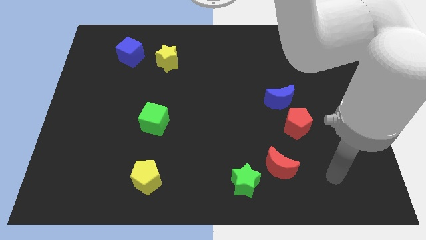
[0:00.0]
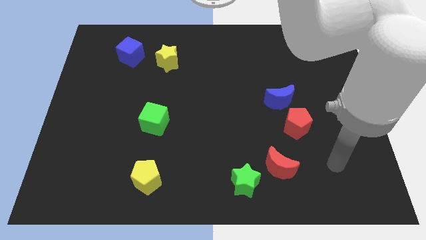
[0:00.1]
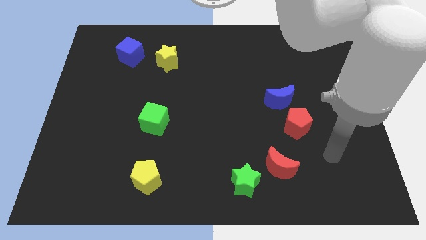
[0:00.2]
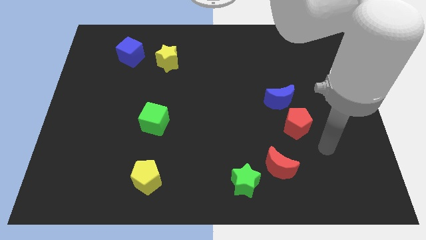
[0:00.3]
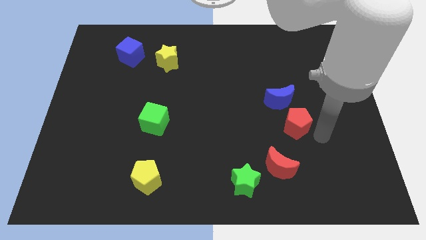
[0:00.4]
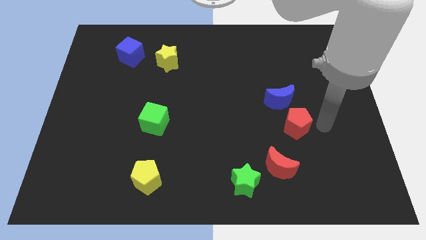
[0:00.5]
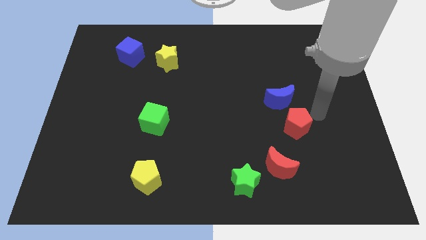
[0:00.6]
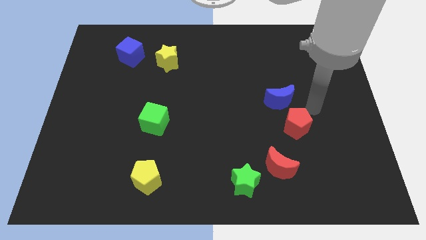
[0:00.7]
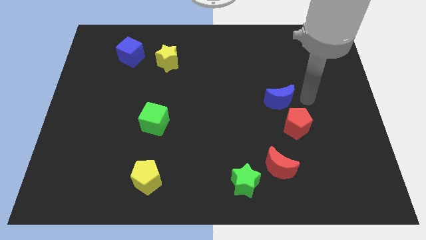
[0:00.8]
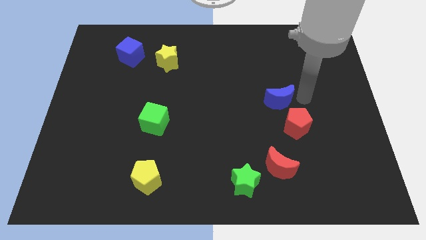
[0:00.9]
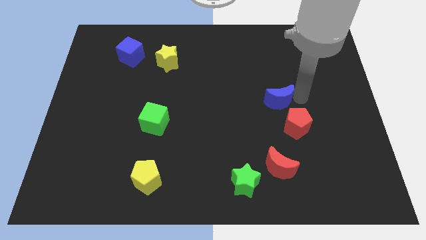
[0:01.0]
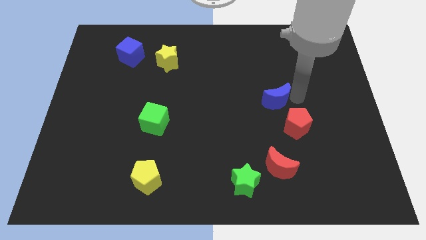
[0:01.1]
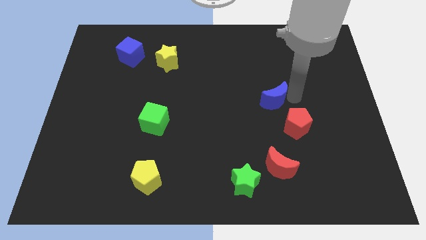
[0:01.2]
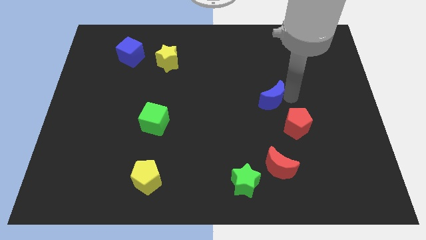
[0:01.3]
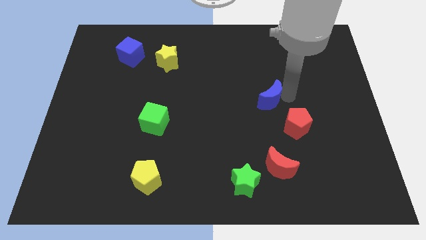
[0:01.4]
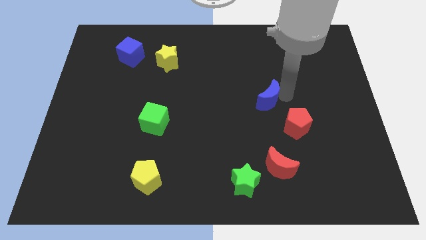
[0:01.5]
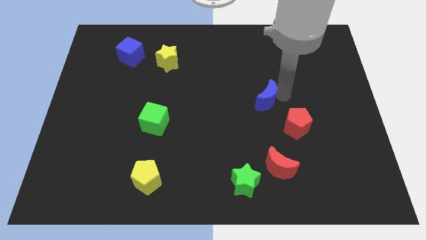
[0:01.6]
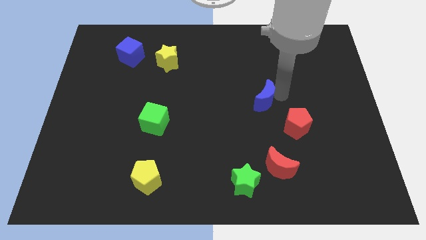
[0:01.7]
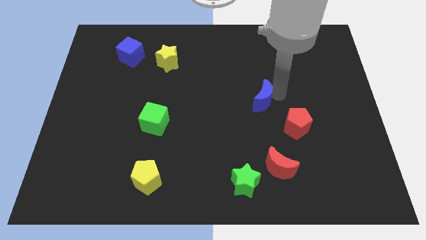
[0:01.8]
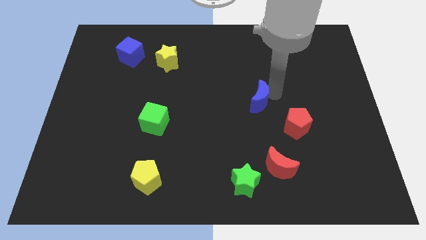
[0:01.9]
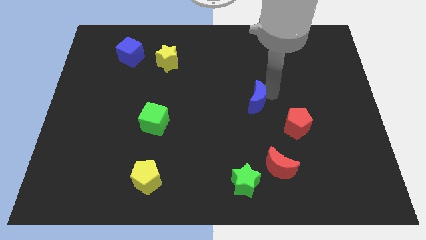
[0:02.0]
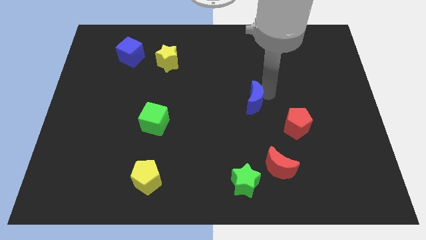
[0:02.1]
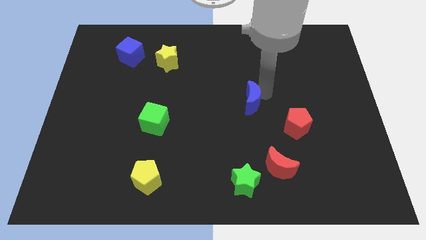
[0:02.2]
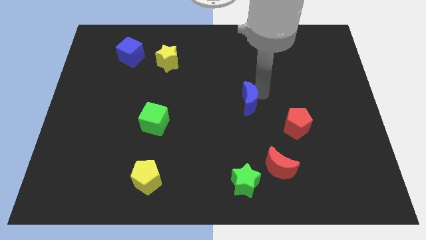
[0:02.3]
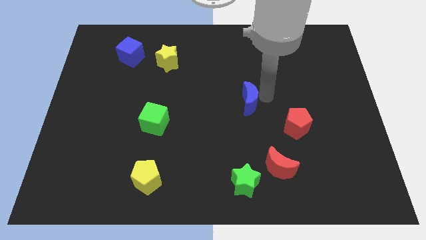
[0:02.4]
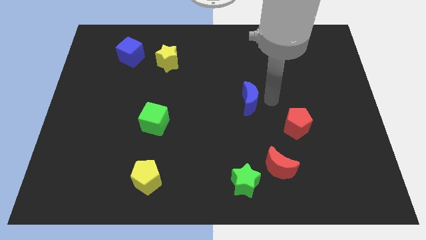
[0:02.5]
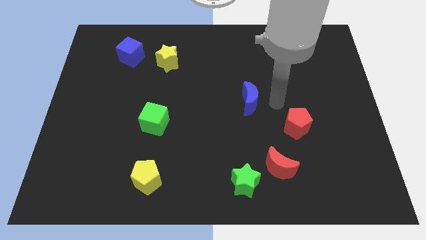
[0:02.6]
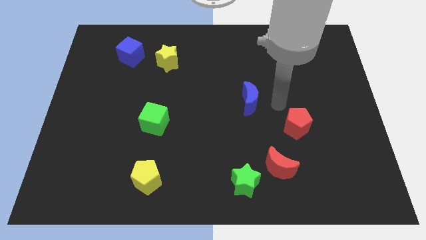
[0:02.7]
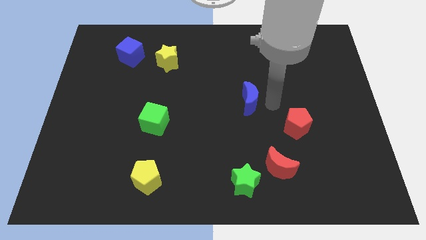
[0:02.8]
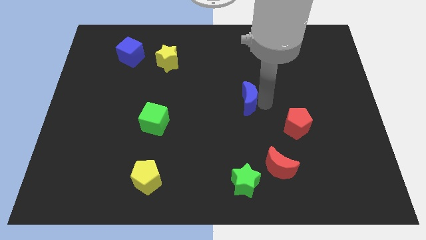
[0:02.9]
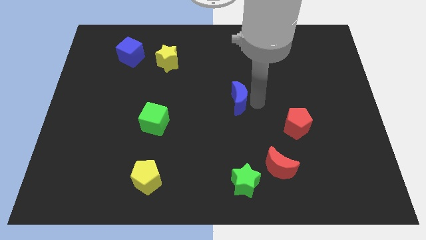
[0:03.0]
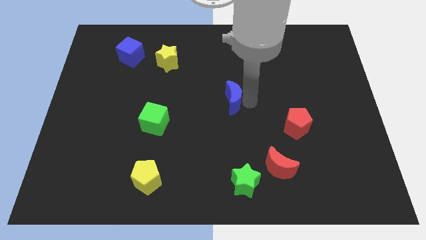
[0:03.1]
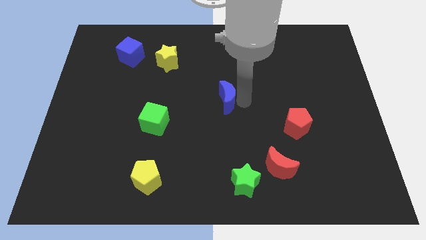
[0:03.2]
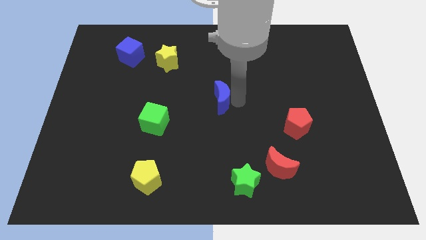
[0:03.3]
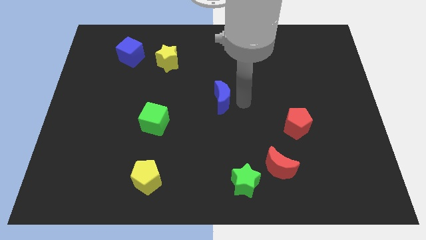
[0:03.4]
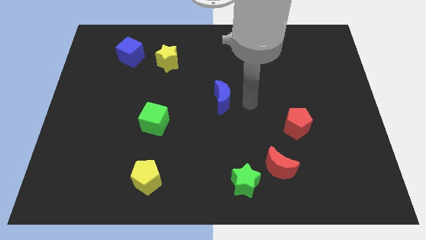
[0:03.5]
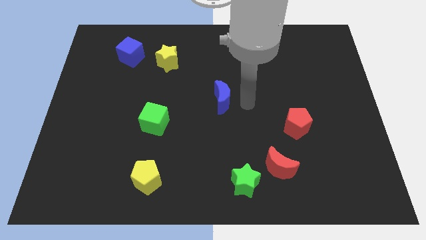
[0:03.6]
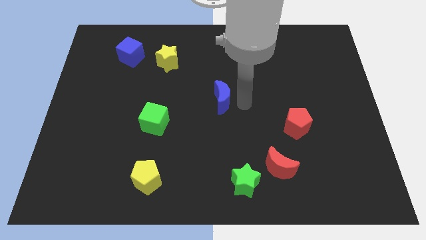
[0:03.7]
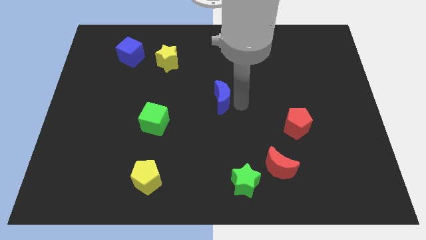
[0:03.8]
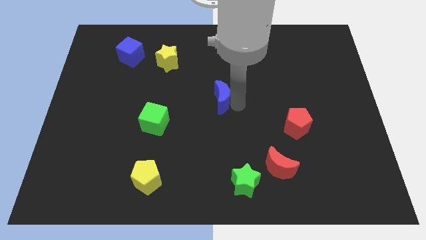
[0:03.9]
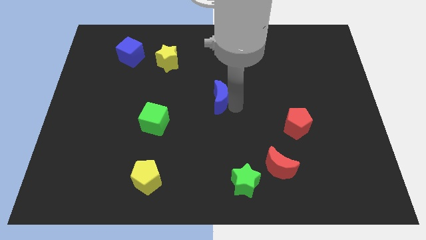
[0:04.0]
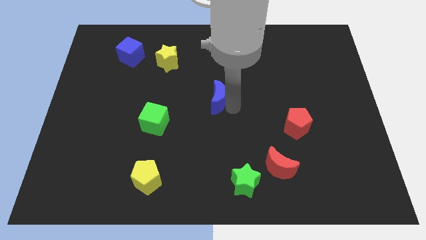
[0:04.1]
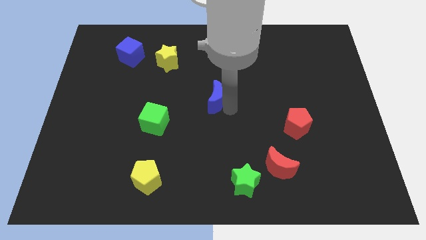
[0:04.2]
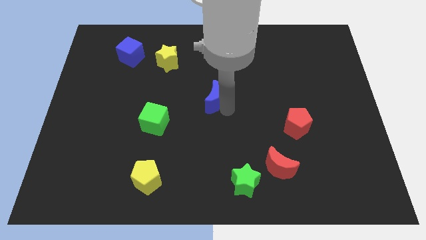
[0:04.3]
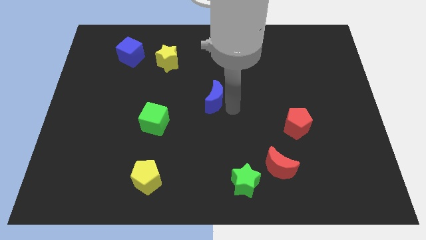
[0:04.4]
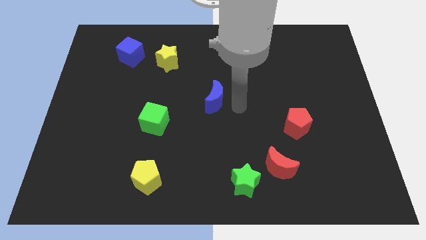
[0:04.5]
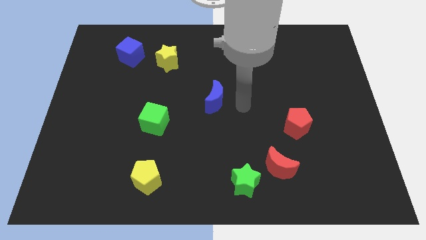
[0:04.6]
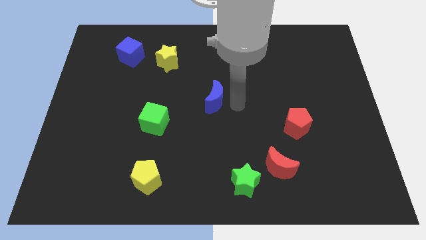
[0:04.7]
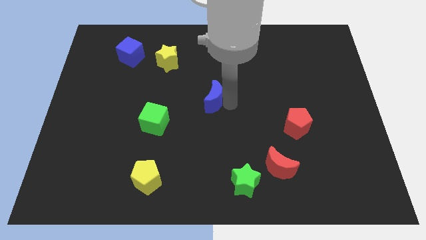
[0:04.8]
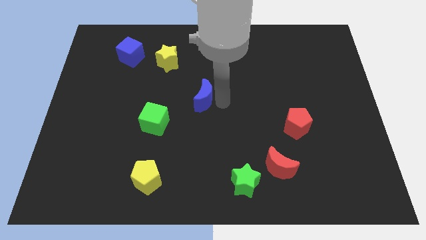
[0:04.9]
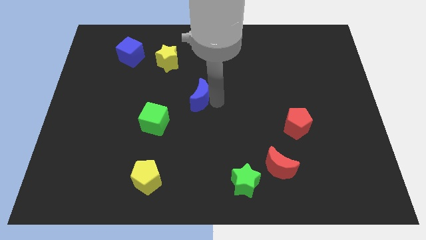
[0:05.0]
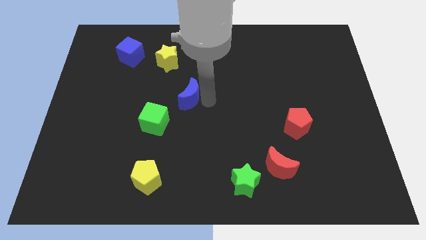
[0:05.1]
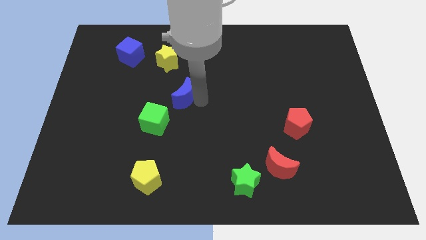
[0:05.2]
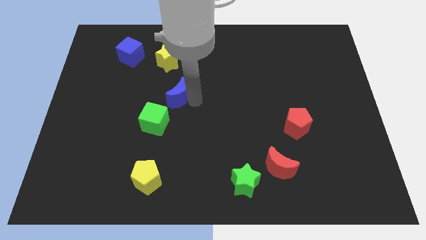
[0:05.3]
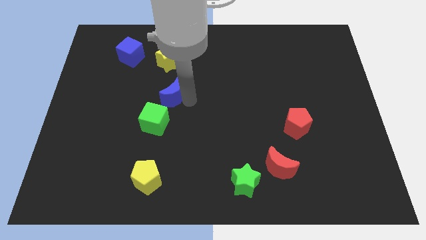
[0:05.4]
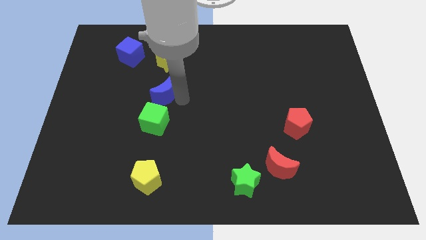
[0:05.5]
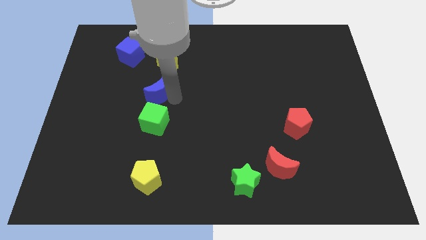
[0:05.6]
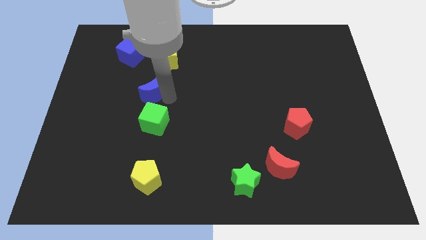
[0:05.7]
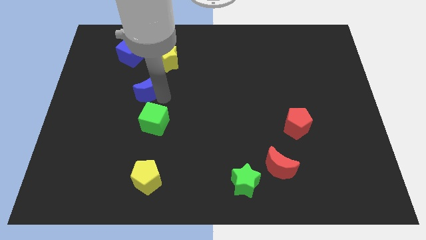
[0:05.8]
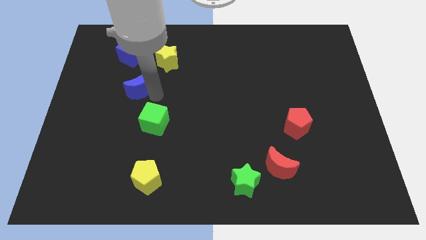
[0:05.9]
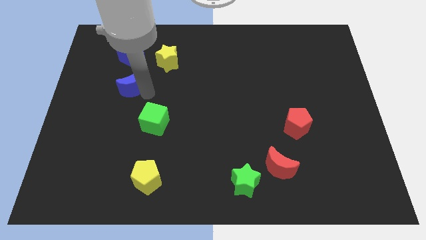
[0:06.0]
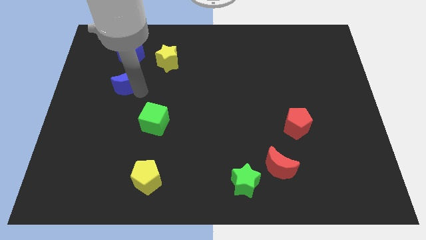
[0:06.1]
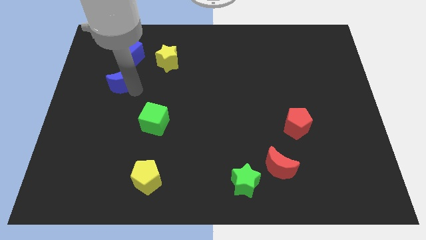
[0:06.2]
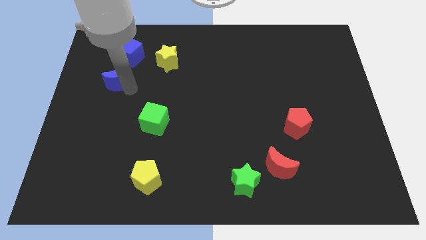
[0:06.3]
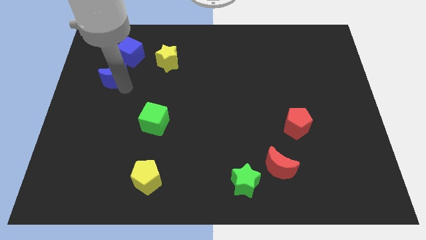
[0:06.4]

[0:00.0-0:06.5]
push the blue moon to the bottom left side of the blue cube
